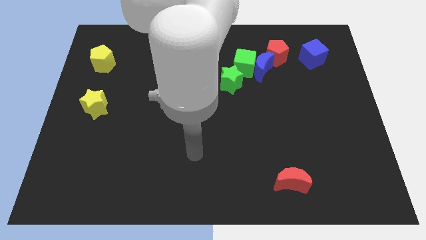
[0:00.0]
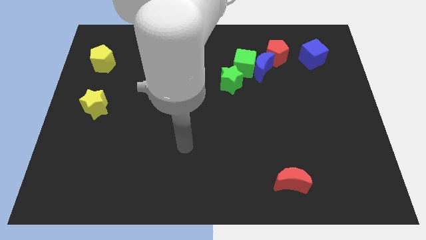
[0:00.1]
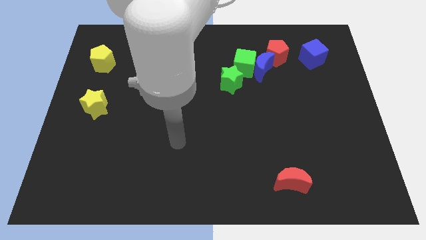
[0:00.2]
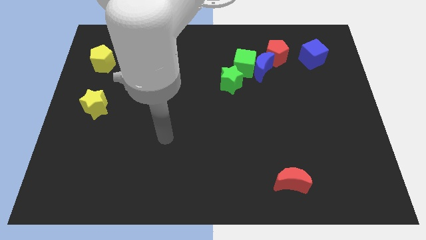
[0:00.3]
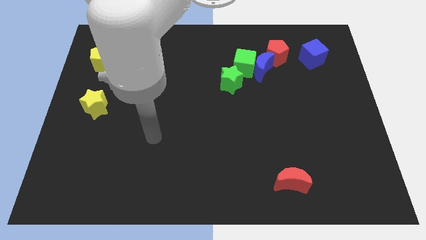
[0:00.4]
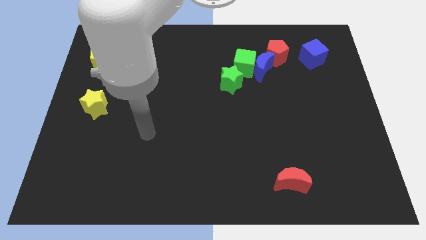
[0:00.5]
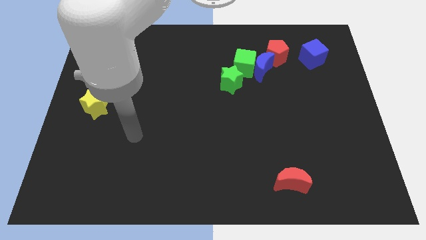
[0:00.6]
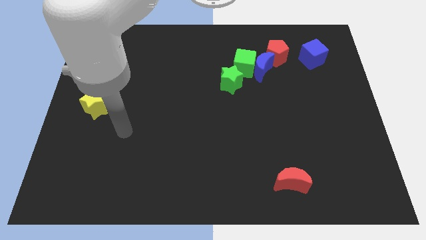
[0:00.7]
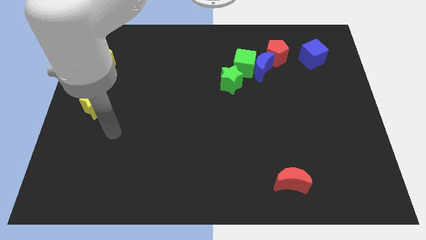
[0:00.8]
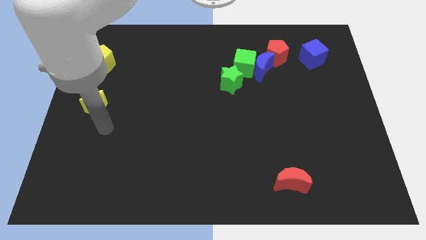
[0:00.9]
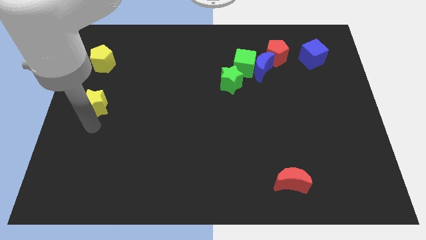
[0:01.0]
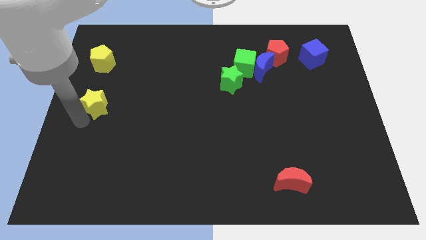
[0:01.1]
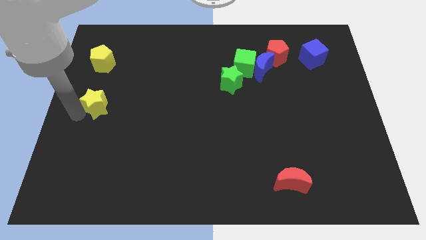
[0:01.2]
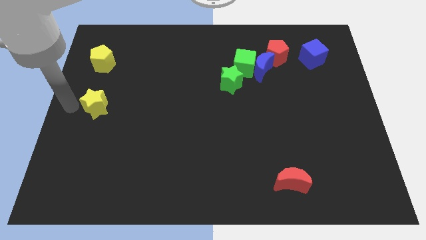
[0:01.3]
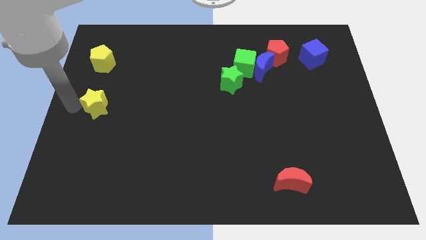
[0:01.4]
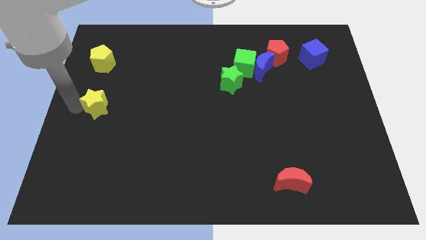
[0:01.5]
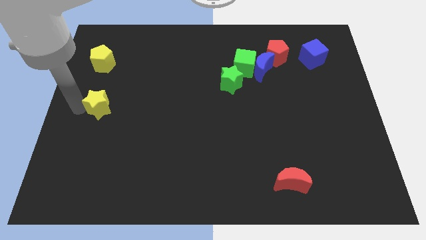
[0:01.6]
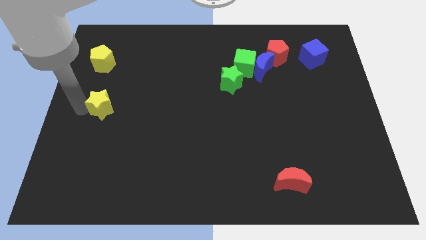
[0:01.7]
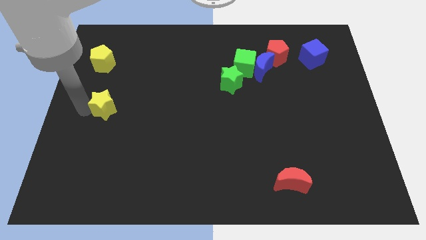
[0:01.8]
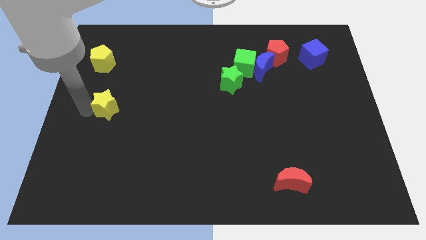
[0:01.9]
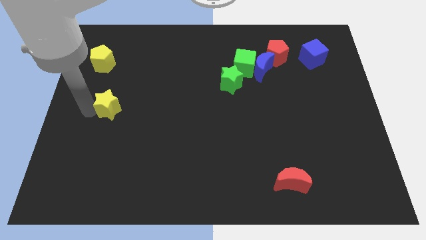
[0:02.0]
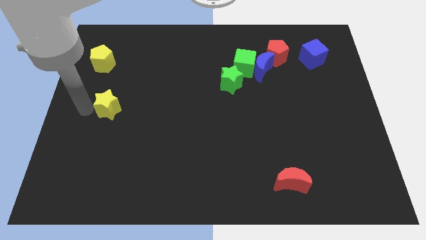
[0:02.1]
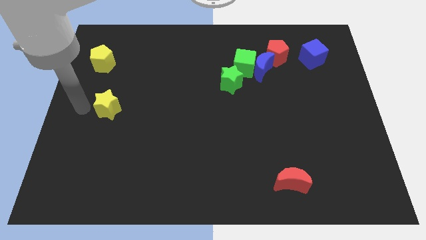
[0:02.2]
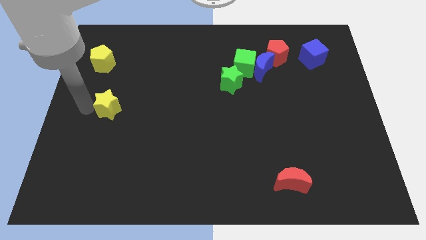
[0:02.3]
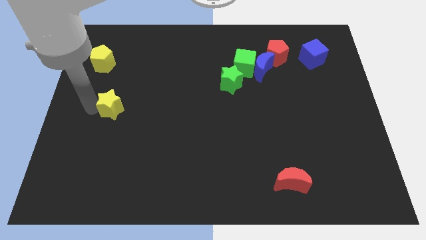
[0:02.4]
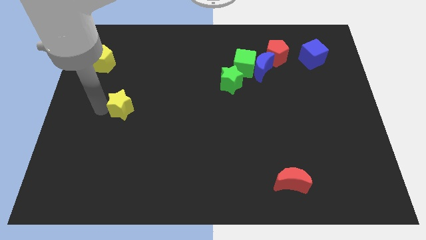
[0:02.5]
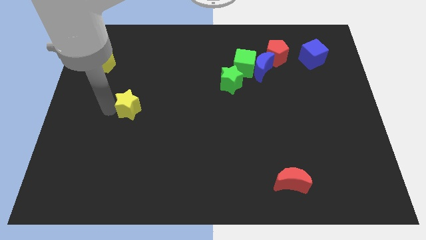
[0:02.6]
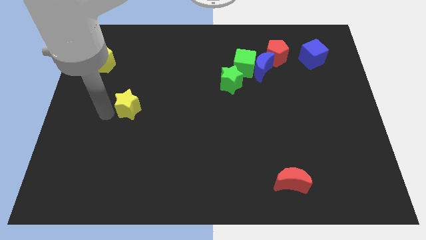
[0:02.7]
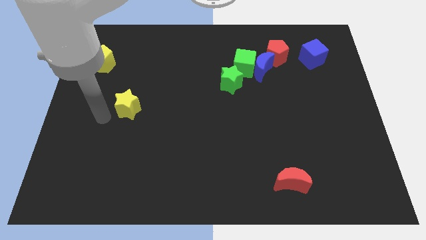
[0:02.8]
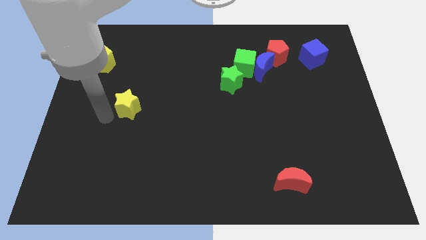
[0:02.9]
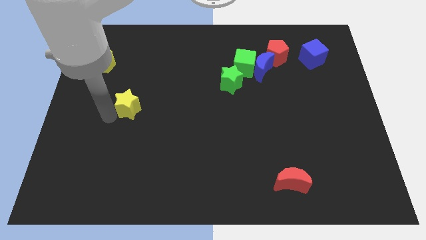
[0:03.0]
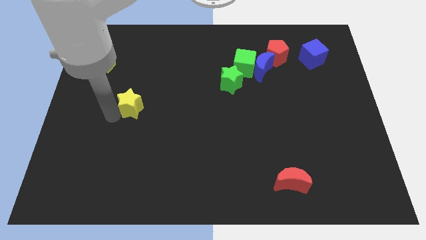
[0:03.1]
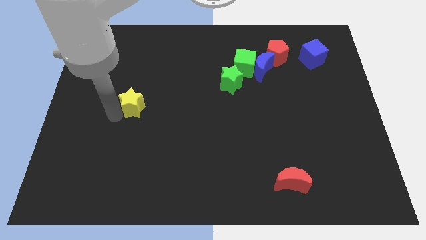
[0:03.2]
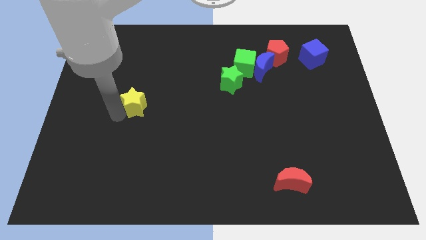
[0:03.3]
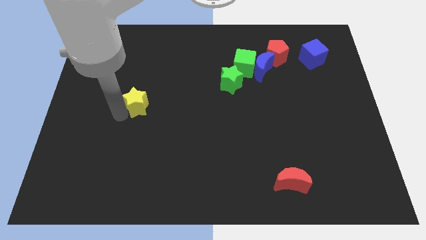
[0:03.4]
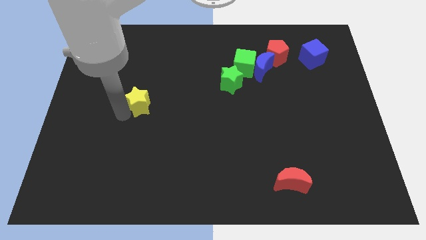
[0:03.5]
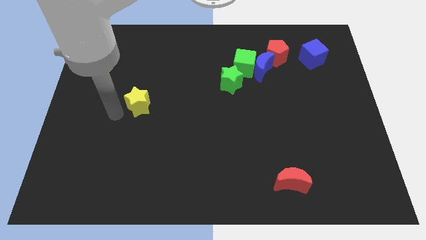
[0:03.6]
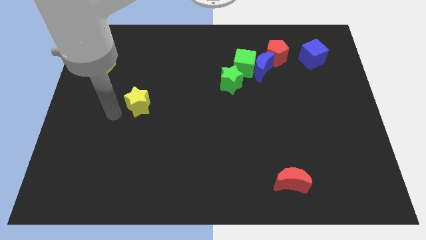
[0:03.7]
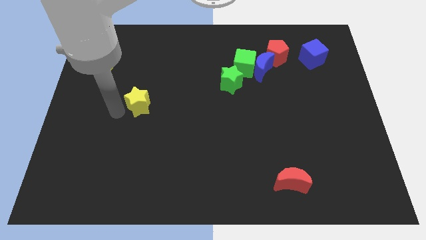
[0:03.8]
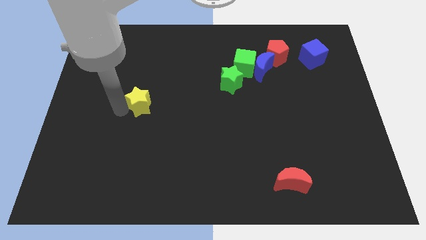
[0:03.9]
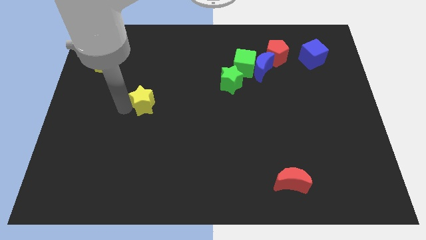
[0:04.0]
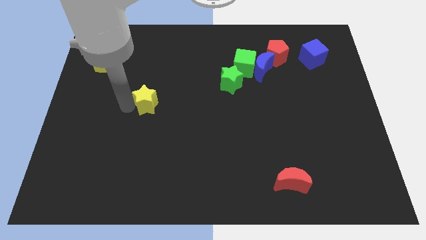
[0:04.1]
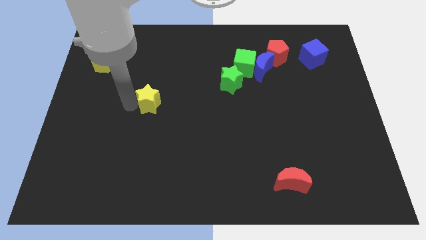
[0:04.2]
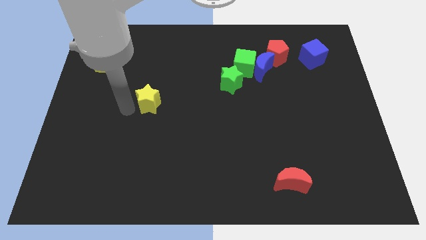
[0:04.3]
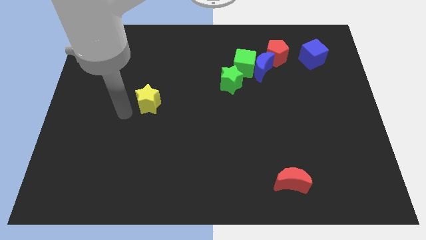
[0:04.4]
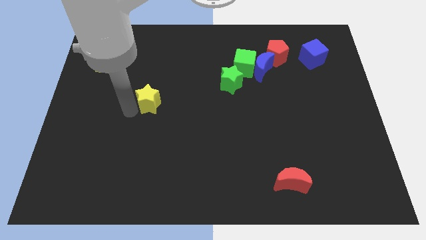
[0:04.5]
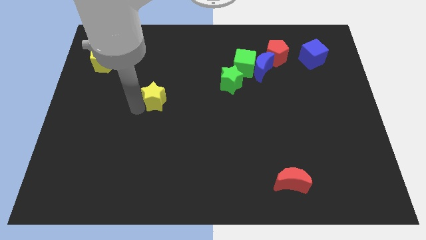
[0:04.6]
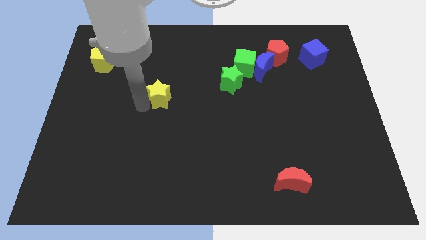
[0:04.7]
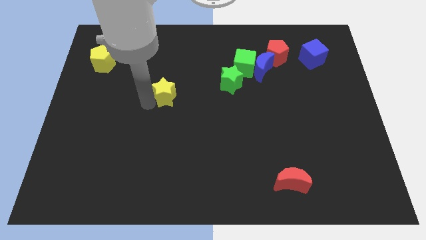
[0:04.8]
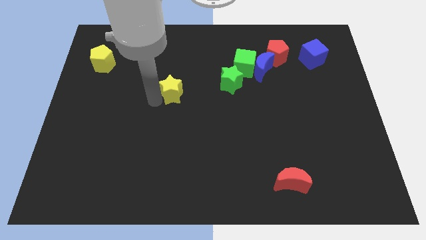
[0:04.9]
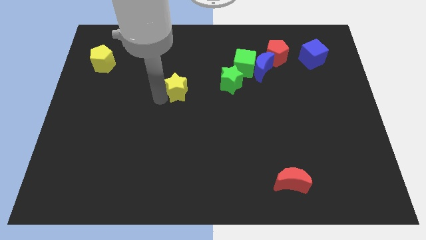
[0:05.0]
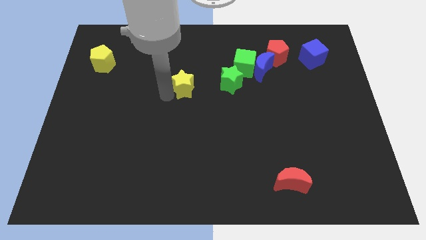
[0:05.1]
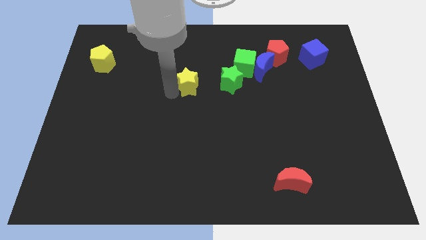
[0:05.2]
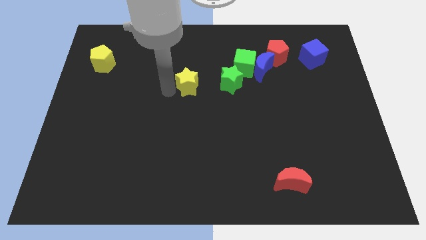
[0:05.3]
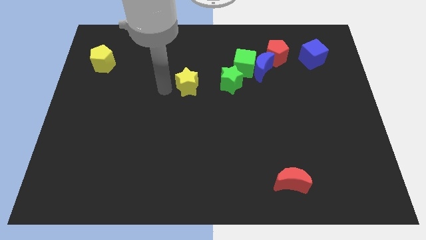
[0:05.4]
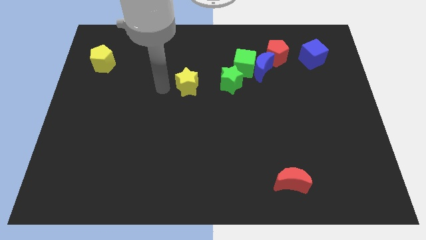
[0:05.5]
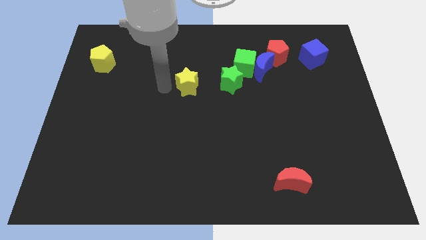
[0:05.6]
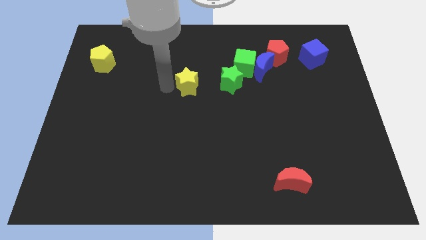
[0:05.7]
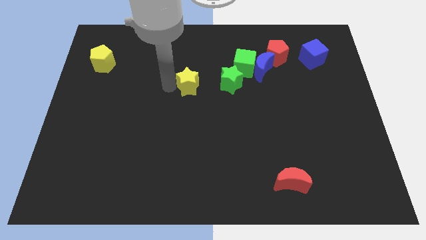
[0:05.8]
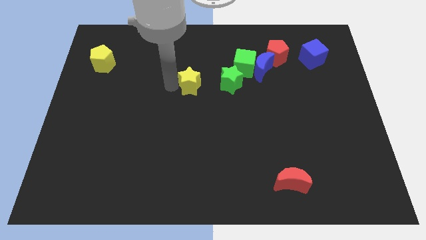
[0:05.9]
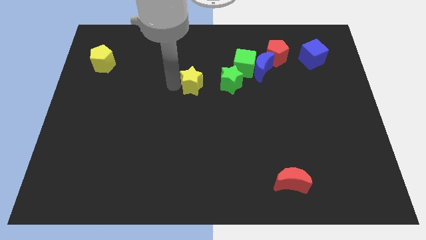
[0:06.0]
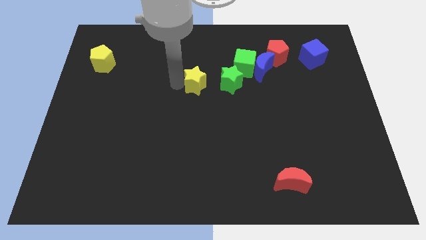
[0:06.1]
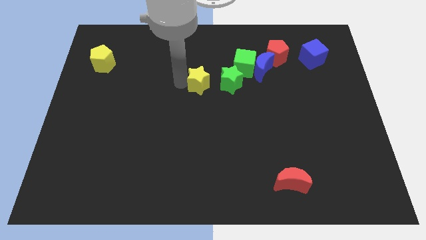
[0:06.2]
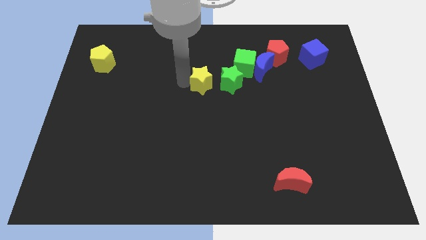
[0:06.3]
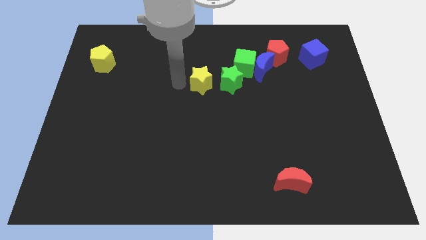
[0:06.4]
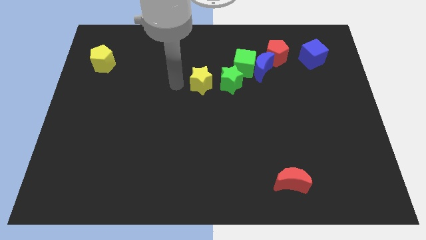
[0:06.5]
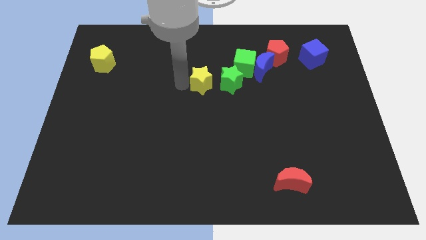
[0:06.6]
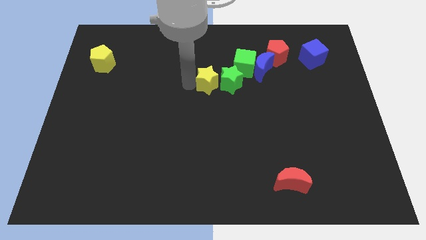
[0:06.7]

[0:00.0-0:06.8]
move the yellow star next to the green star

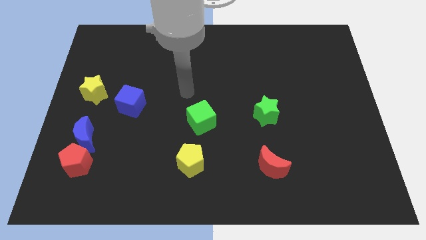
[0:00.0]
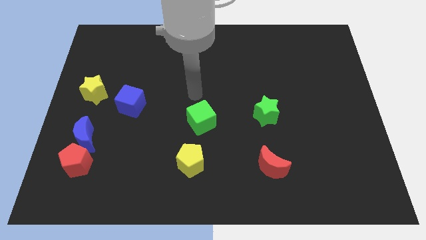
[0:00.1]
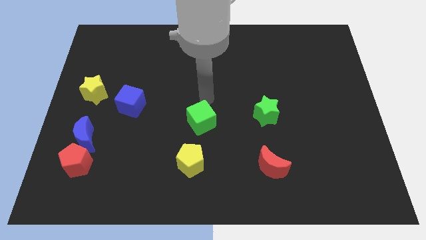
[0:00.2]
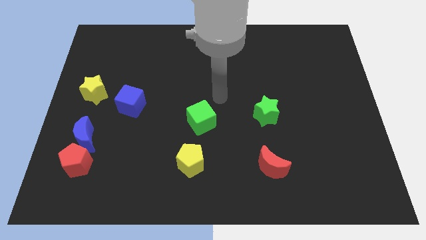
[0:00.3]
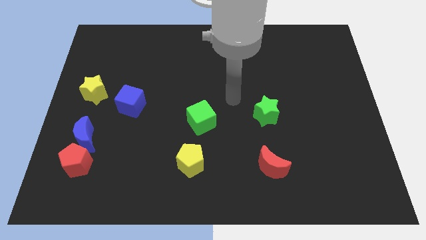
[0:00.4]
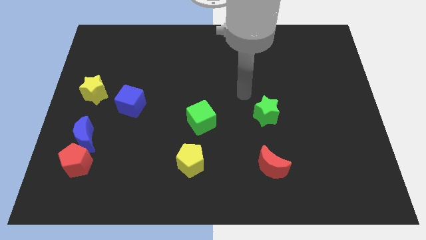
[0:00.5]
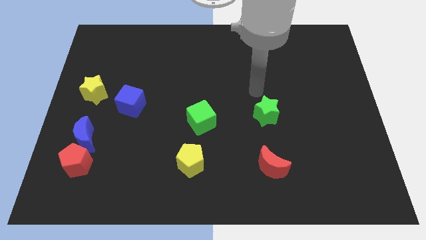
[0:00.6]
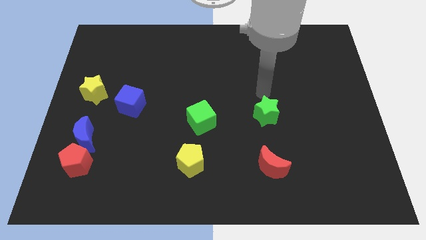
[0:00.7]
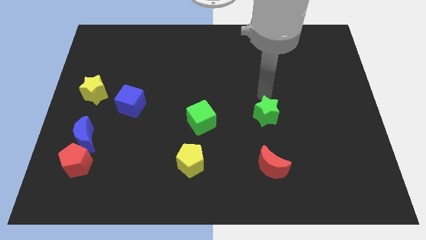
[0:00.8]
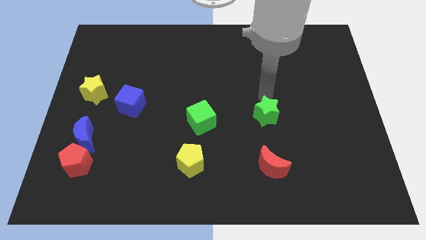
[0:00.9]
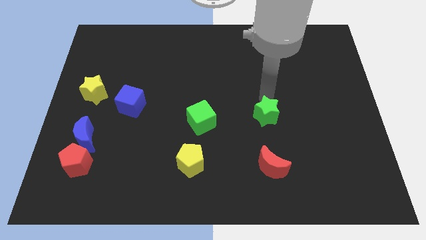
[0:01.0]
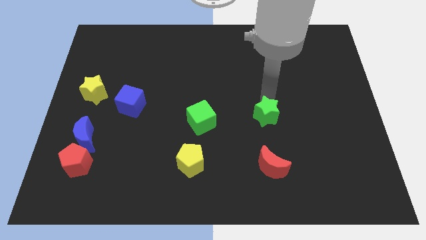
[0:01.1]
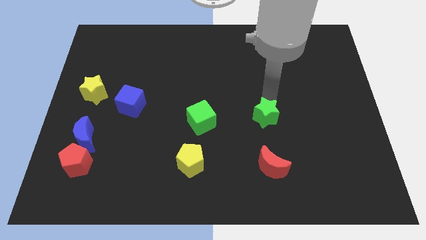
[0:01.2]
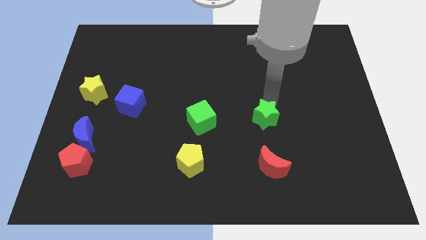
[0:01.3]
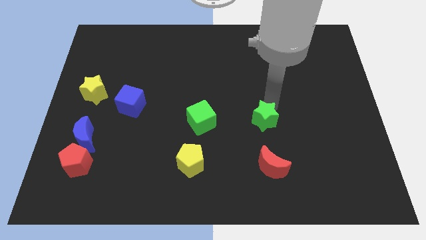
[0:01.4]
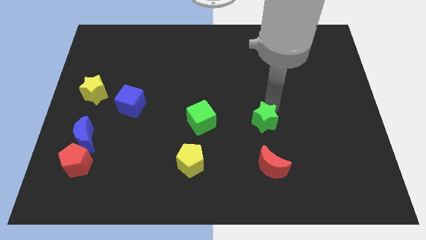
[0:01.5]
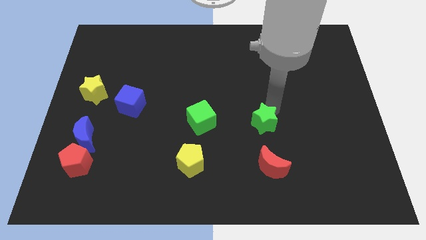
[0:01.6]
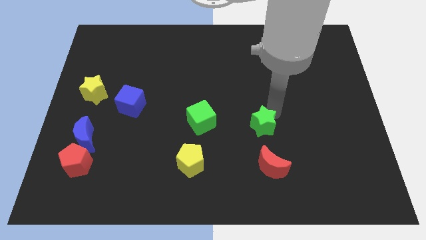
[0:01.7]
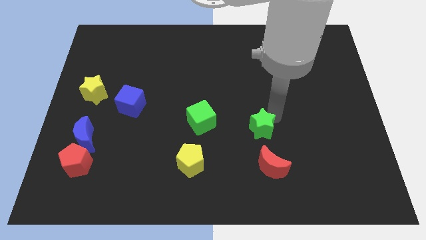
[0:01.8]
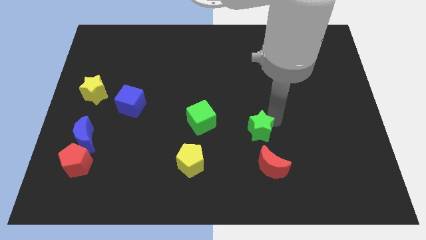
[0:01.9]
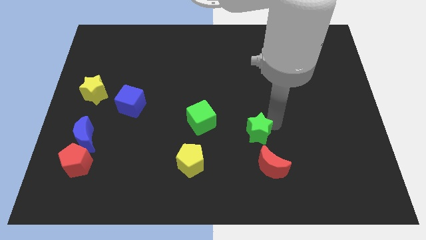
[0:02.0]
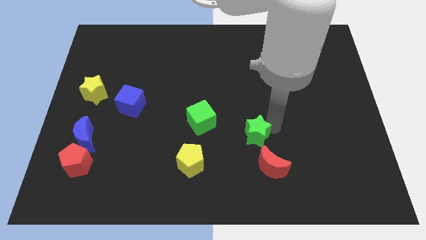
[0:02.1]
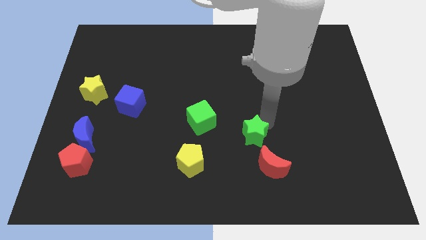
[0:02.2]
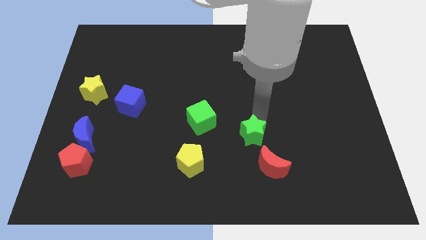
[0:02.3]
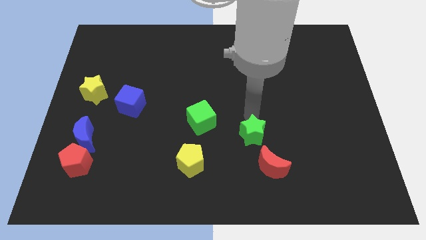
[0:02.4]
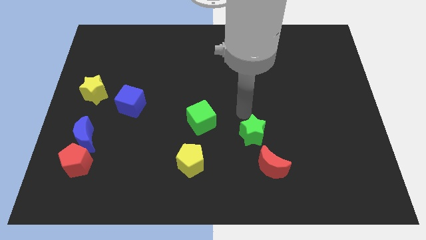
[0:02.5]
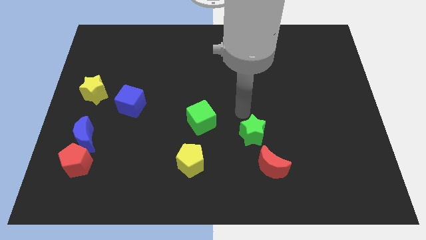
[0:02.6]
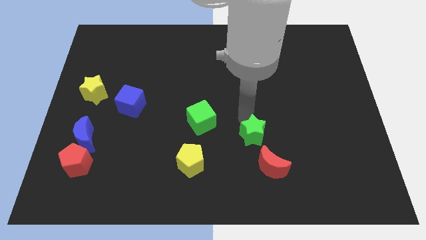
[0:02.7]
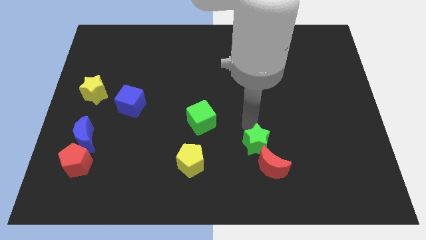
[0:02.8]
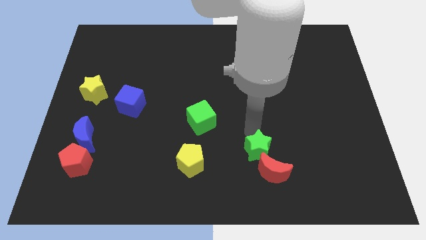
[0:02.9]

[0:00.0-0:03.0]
move the green star next to the red moon
